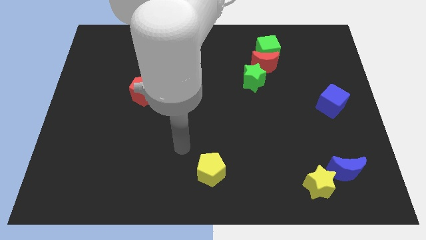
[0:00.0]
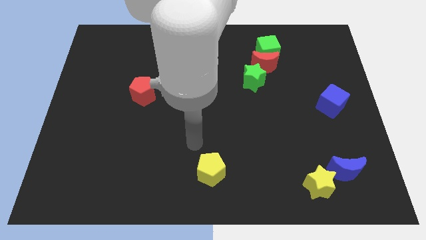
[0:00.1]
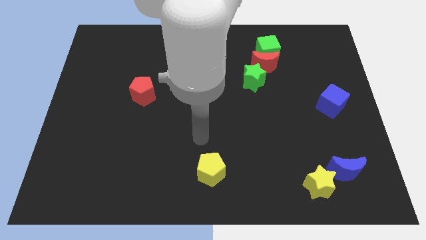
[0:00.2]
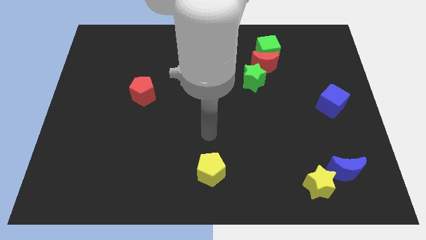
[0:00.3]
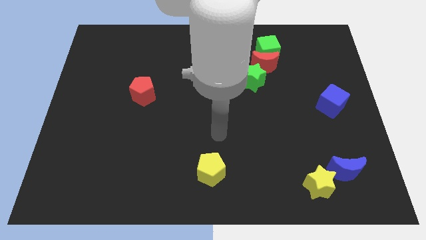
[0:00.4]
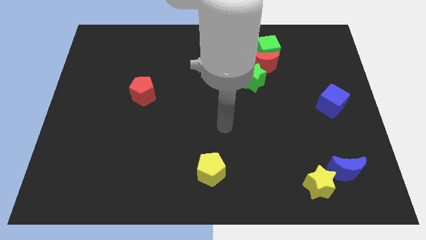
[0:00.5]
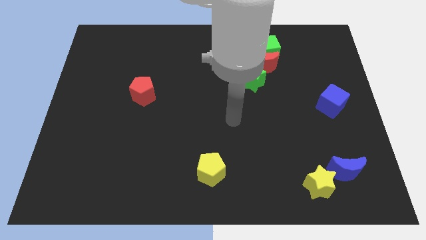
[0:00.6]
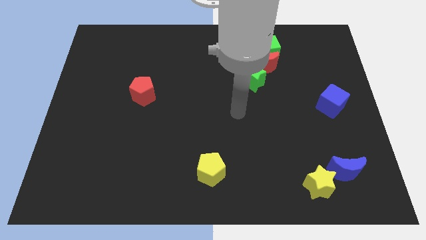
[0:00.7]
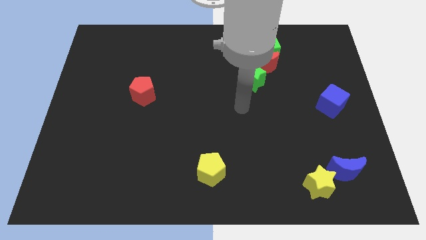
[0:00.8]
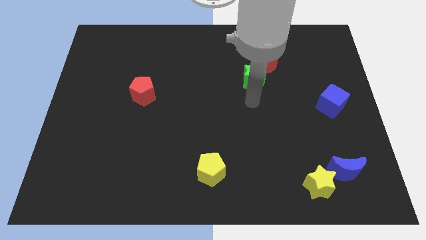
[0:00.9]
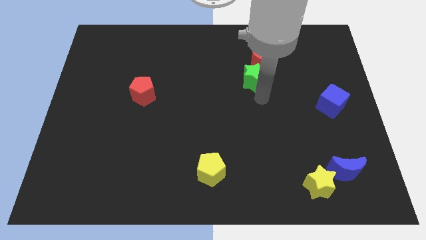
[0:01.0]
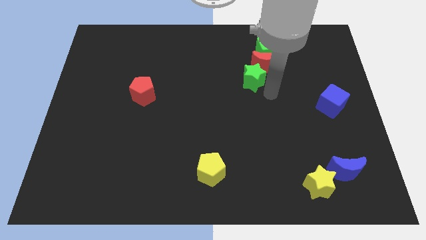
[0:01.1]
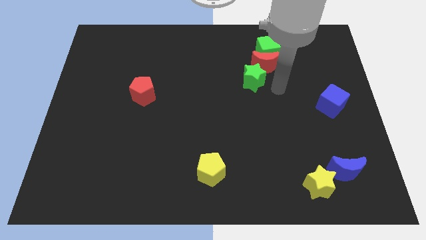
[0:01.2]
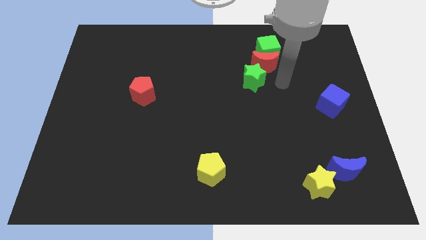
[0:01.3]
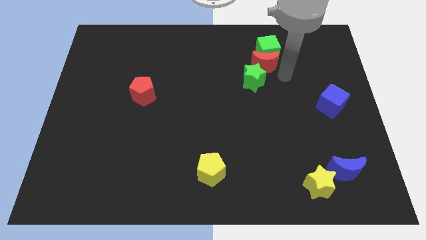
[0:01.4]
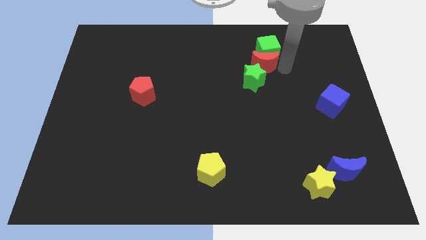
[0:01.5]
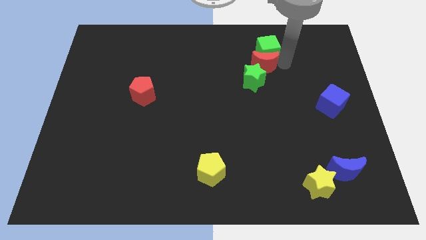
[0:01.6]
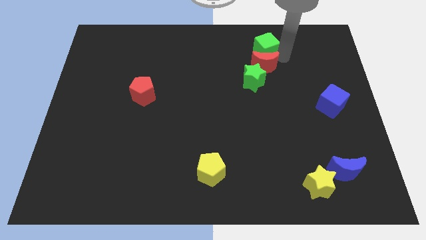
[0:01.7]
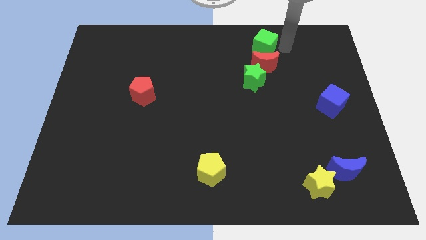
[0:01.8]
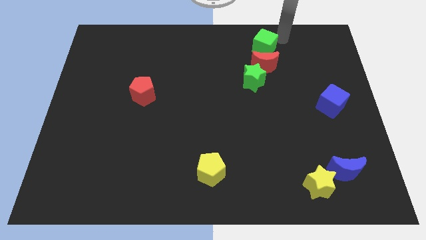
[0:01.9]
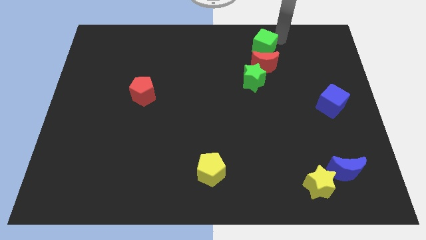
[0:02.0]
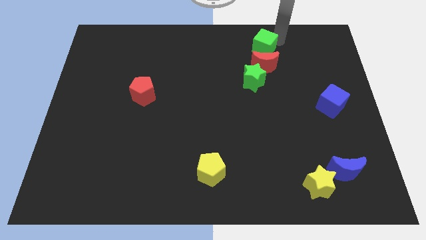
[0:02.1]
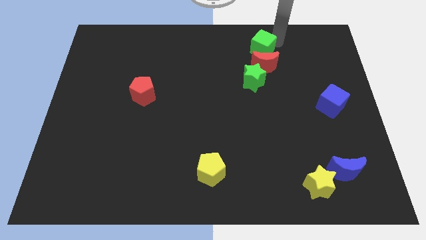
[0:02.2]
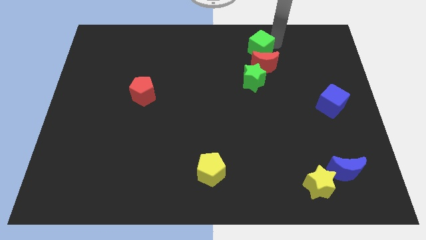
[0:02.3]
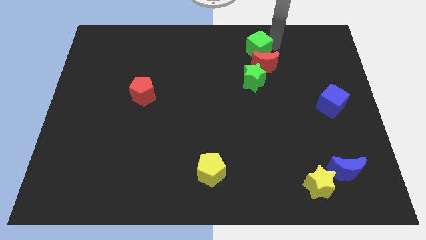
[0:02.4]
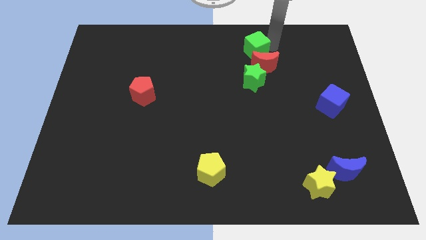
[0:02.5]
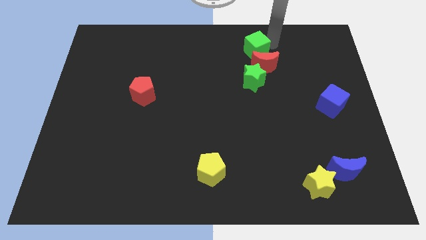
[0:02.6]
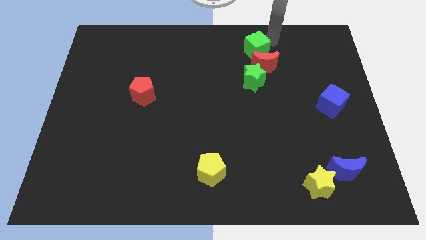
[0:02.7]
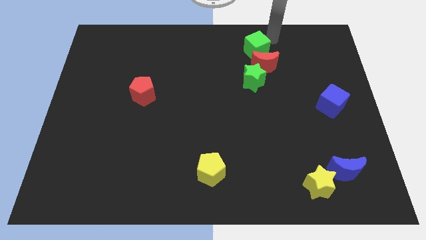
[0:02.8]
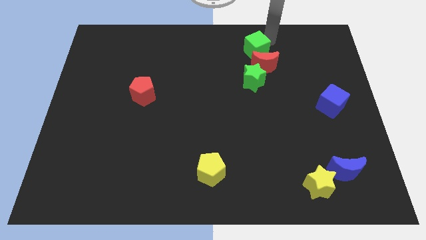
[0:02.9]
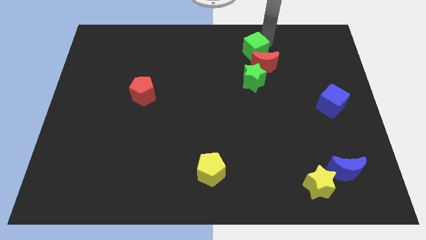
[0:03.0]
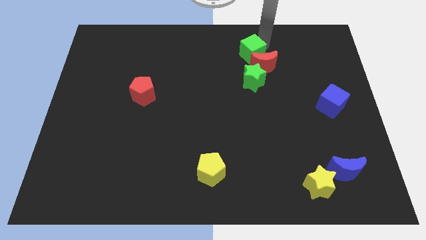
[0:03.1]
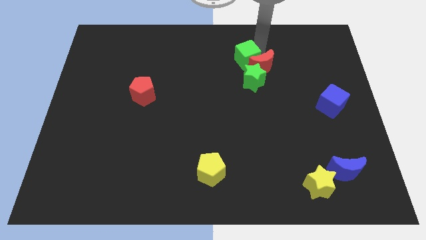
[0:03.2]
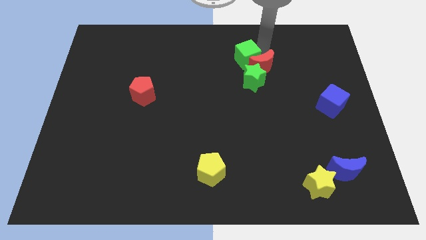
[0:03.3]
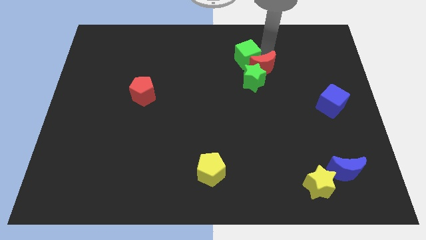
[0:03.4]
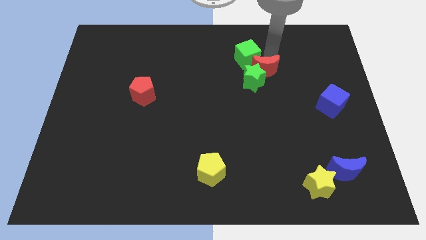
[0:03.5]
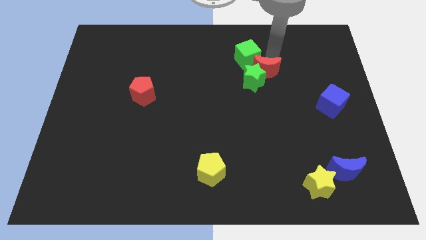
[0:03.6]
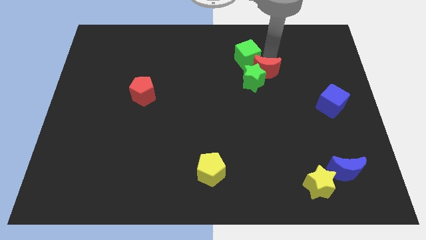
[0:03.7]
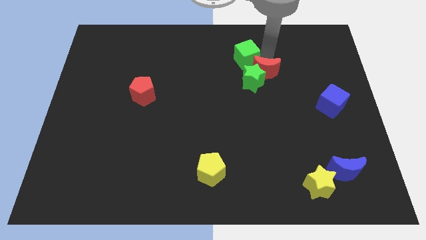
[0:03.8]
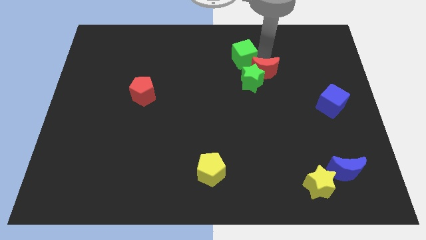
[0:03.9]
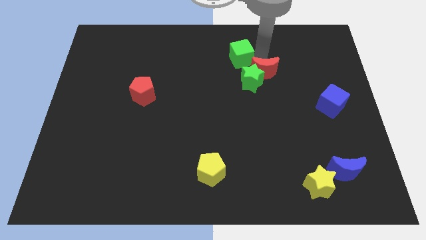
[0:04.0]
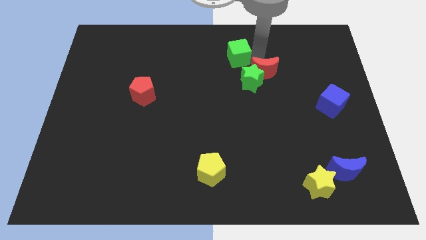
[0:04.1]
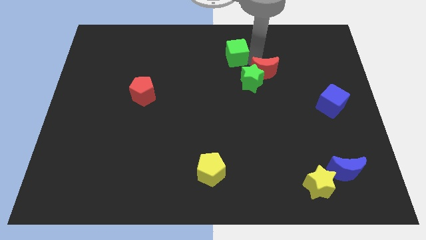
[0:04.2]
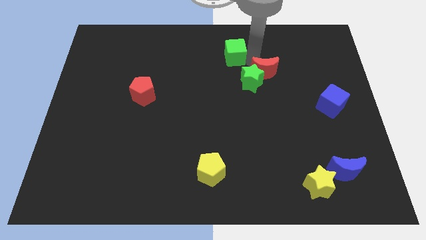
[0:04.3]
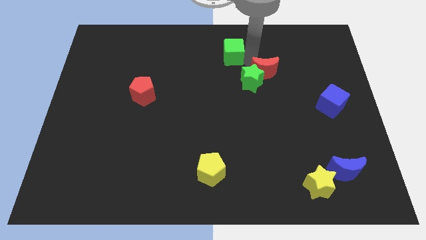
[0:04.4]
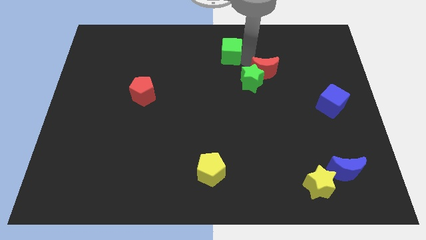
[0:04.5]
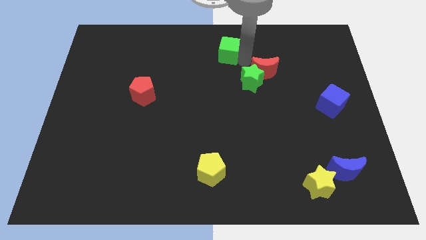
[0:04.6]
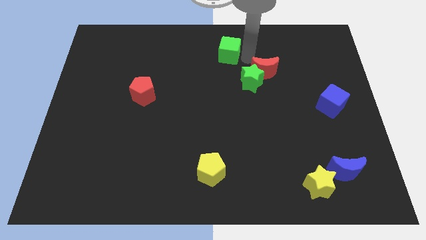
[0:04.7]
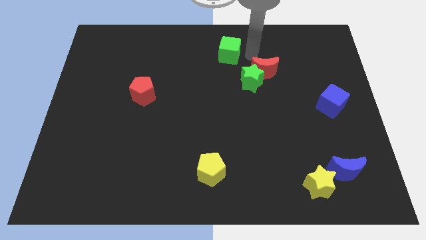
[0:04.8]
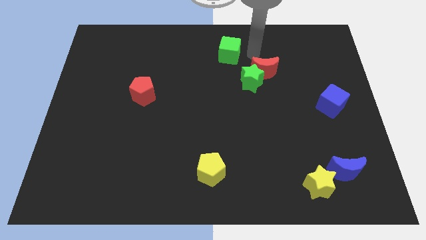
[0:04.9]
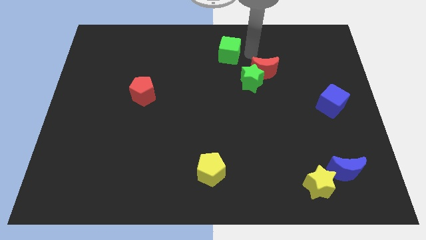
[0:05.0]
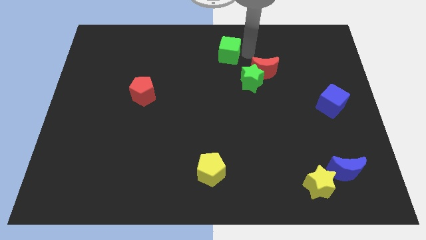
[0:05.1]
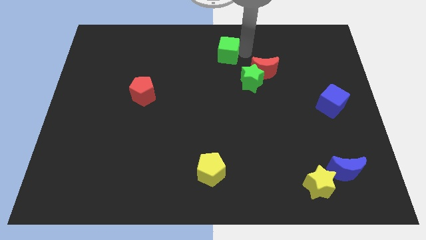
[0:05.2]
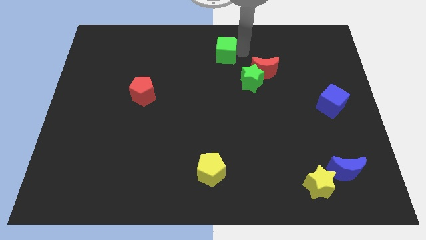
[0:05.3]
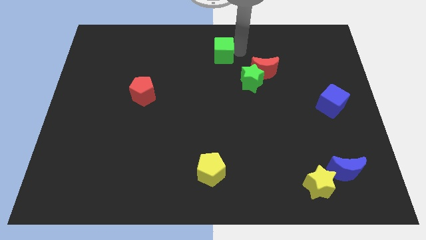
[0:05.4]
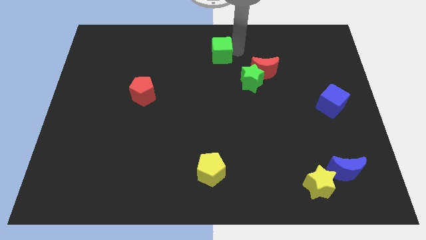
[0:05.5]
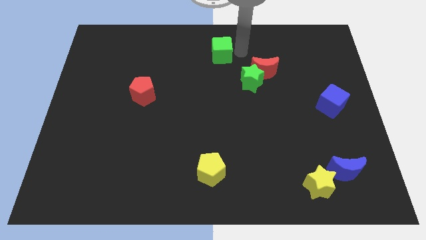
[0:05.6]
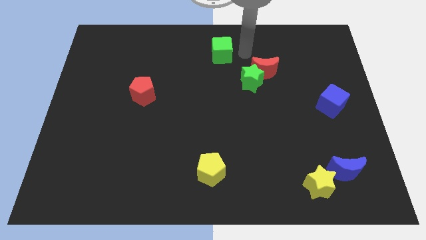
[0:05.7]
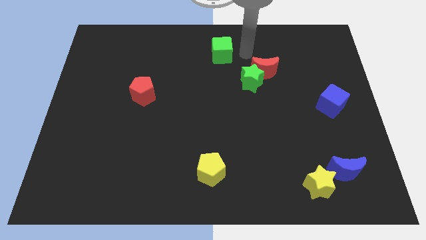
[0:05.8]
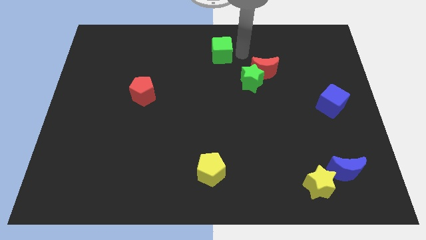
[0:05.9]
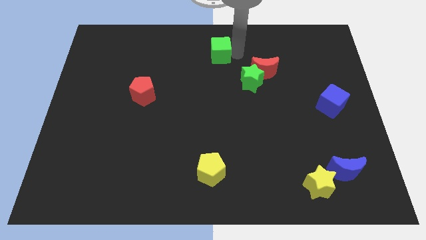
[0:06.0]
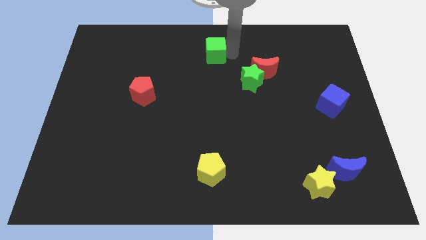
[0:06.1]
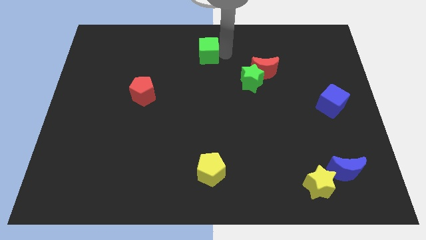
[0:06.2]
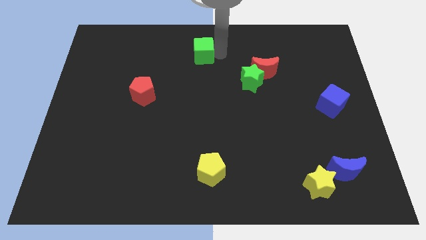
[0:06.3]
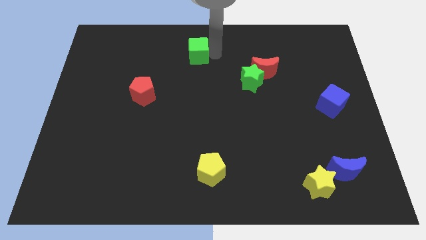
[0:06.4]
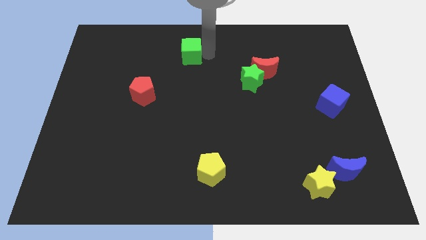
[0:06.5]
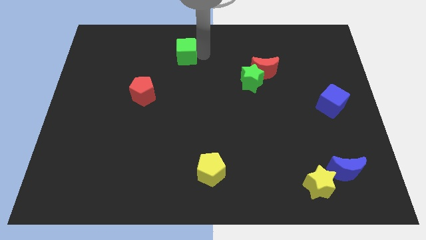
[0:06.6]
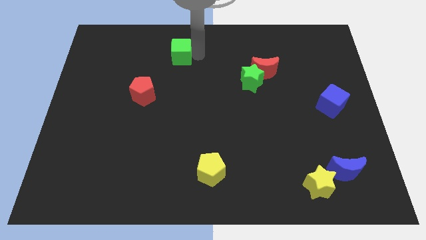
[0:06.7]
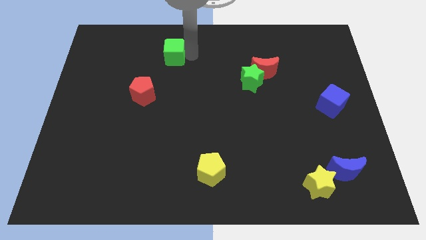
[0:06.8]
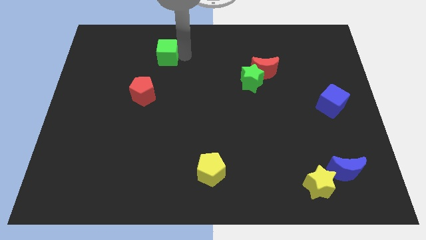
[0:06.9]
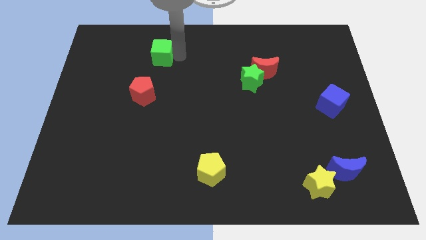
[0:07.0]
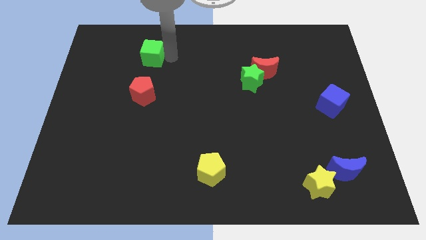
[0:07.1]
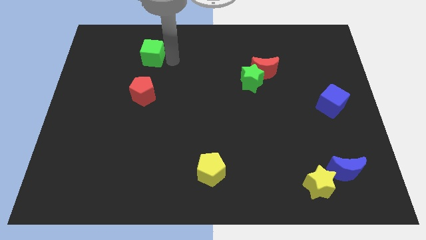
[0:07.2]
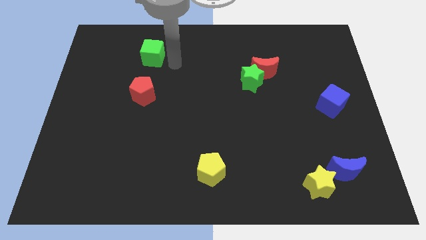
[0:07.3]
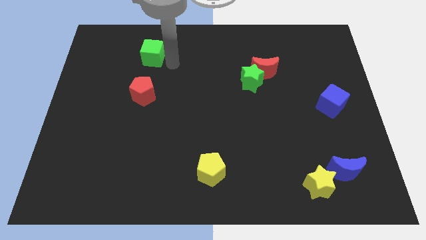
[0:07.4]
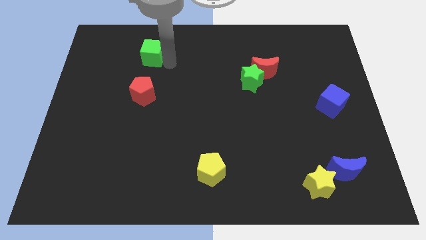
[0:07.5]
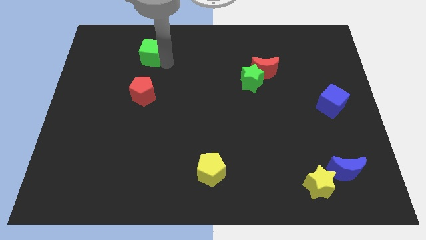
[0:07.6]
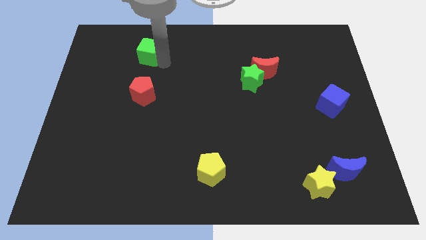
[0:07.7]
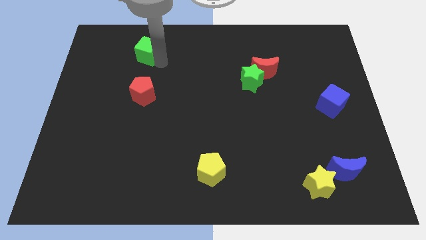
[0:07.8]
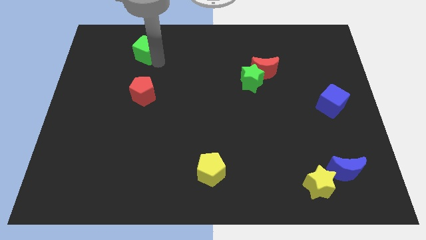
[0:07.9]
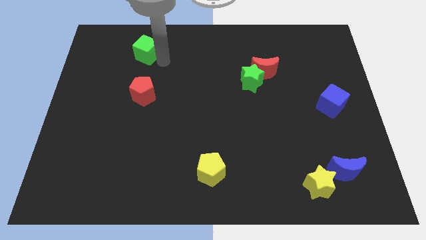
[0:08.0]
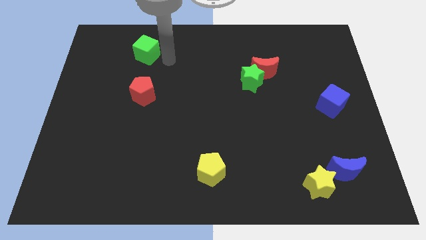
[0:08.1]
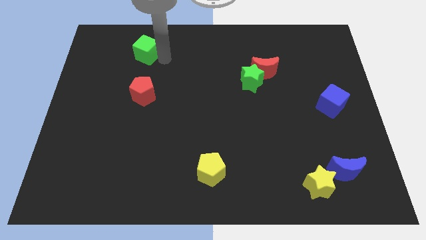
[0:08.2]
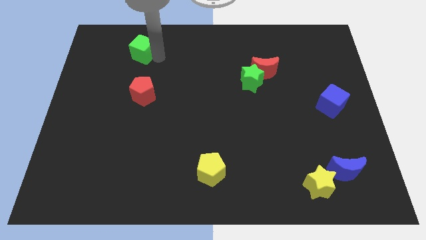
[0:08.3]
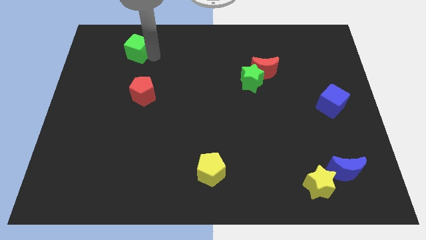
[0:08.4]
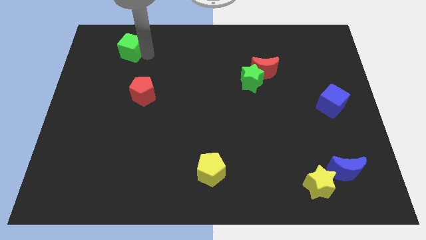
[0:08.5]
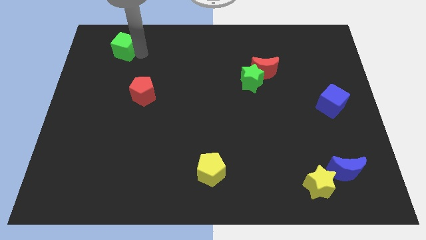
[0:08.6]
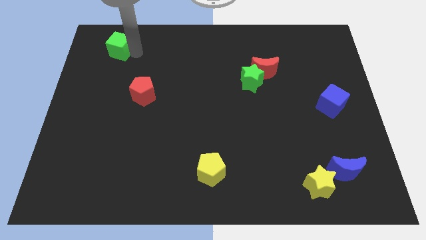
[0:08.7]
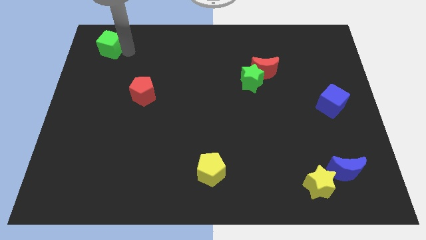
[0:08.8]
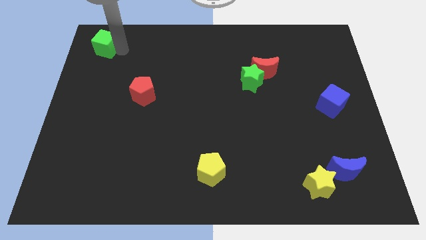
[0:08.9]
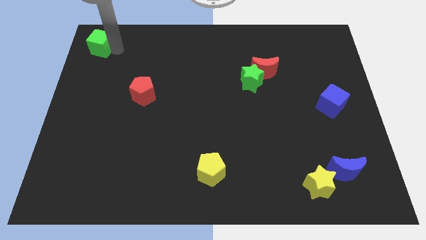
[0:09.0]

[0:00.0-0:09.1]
put the green cube to the top left
